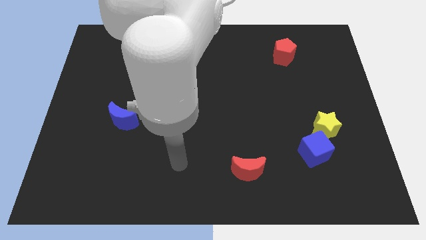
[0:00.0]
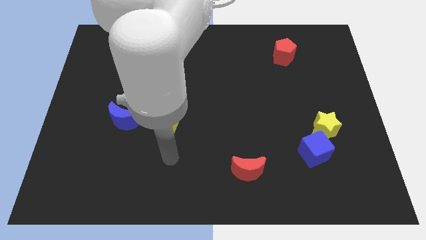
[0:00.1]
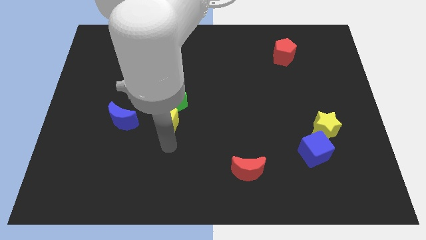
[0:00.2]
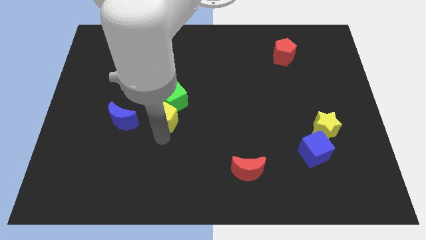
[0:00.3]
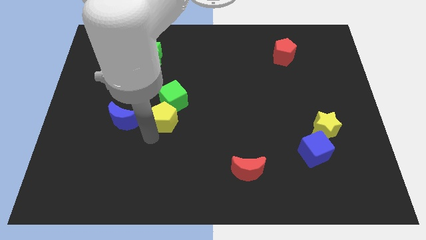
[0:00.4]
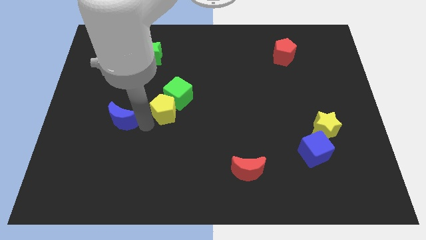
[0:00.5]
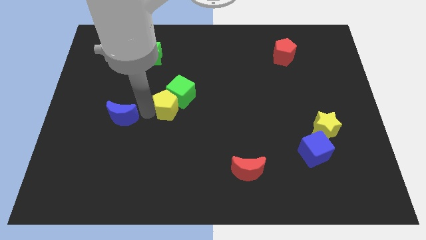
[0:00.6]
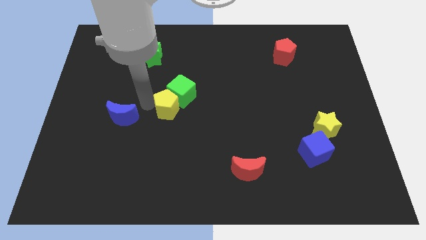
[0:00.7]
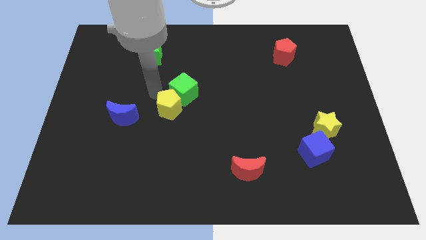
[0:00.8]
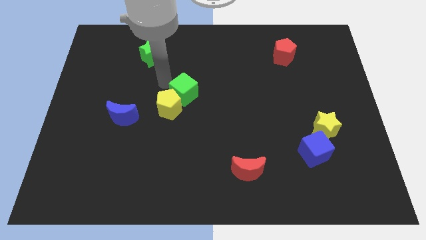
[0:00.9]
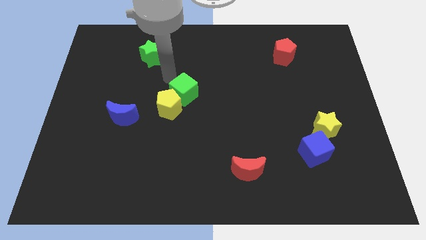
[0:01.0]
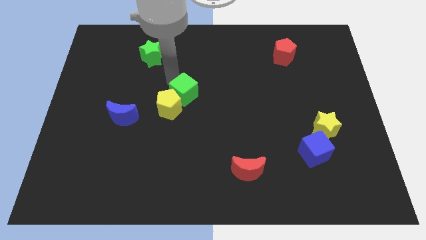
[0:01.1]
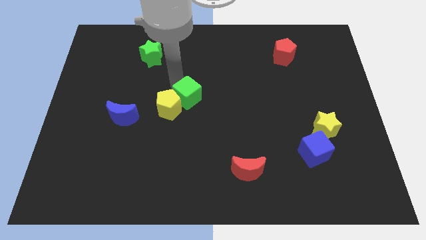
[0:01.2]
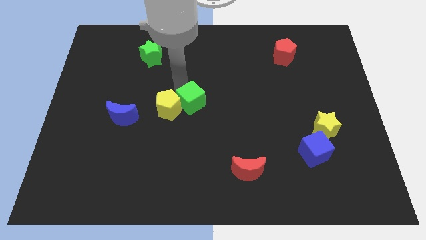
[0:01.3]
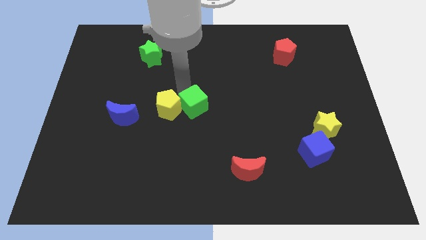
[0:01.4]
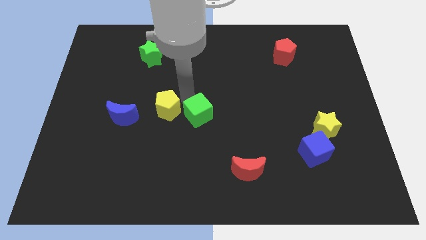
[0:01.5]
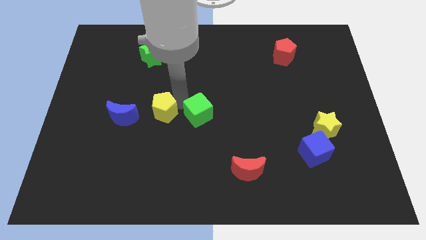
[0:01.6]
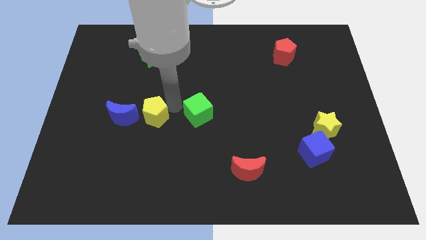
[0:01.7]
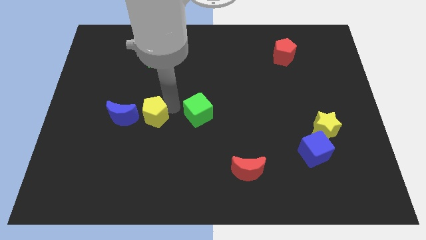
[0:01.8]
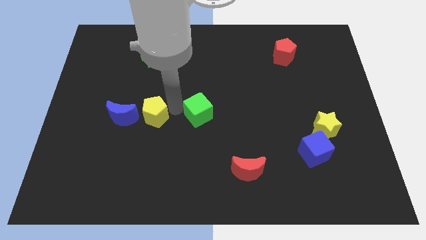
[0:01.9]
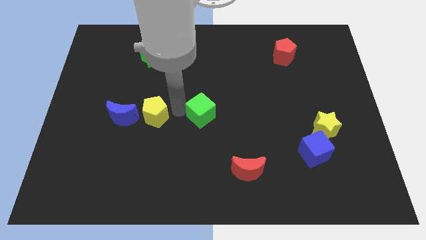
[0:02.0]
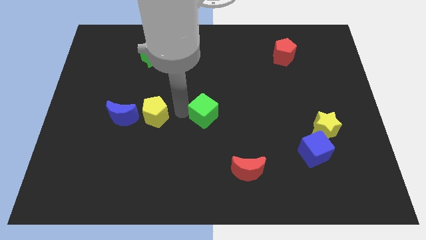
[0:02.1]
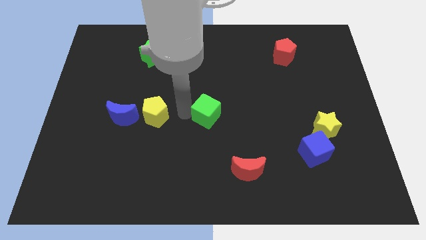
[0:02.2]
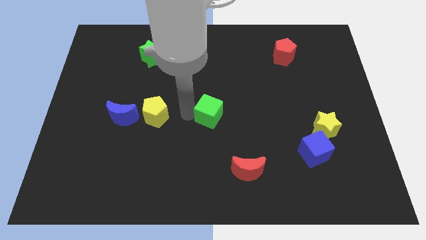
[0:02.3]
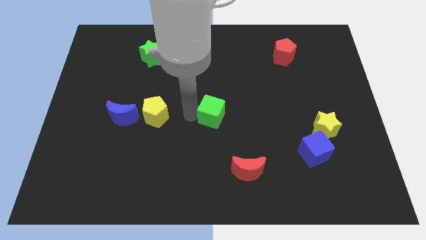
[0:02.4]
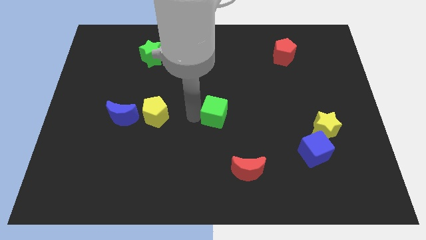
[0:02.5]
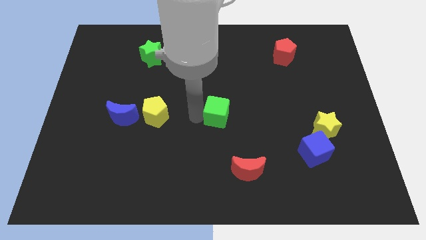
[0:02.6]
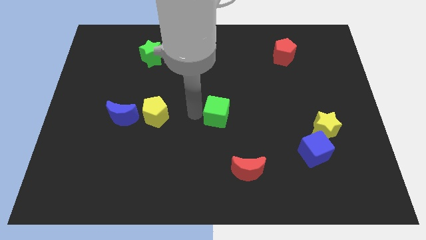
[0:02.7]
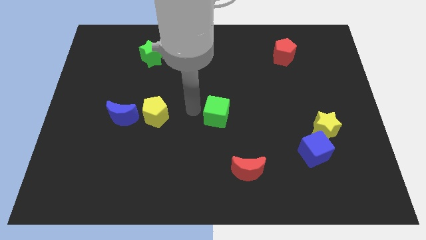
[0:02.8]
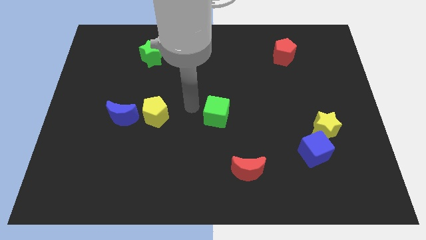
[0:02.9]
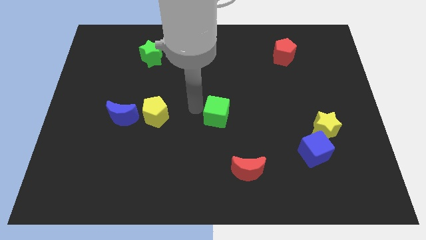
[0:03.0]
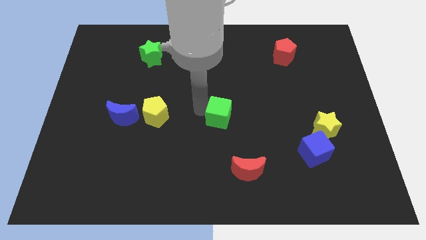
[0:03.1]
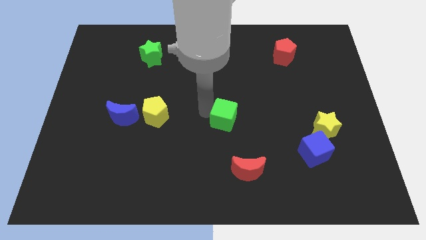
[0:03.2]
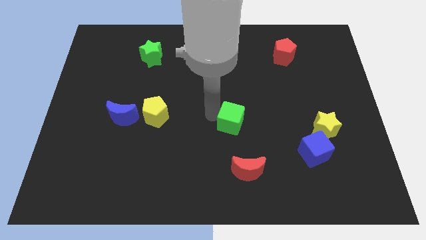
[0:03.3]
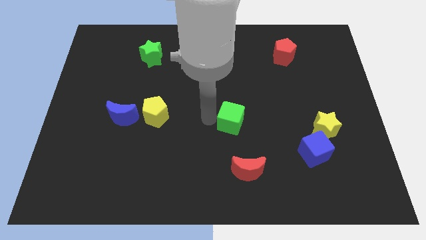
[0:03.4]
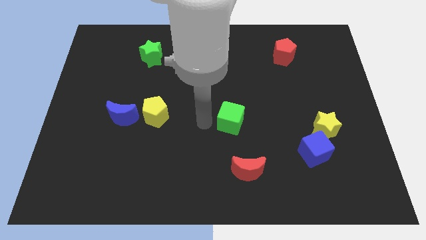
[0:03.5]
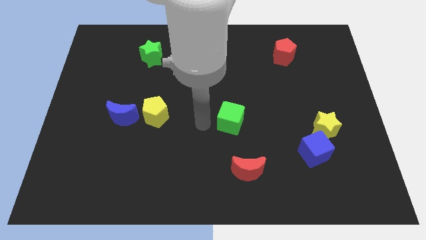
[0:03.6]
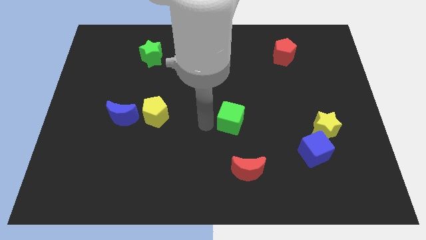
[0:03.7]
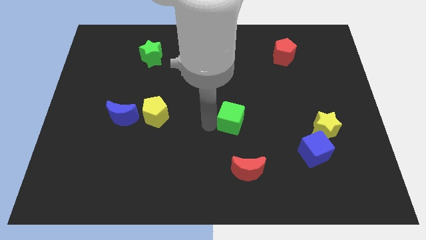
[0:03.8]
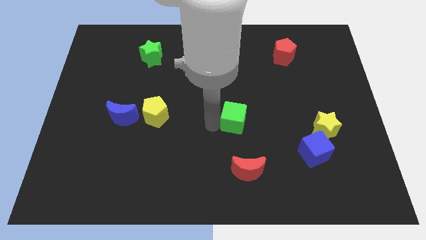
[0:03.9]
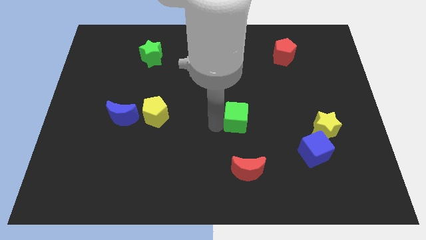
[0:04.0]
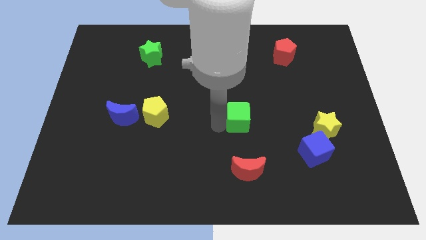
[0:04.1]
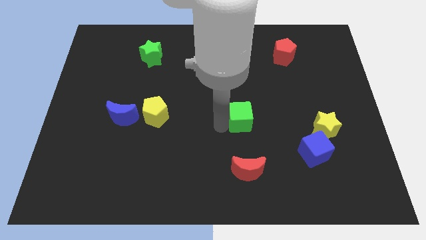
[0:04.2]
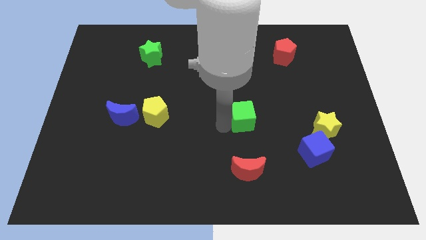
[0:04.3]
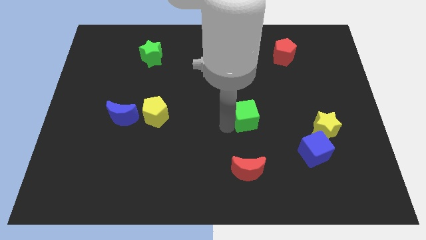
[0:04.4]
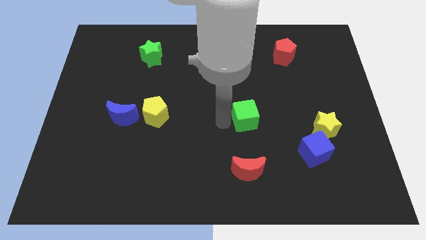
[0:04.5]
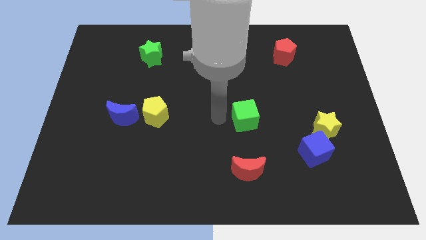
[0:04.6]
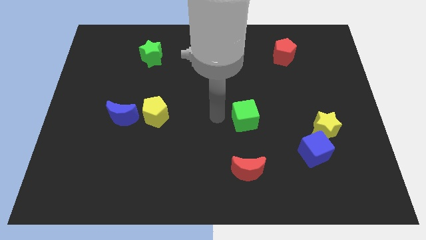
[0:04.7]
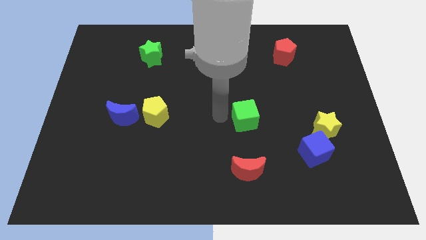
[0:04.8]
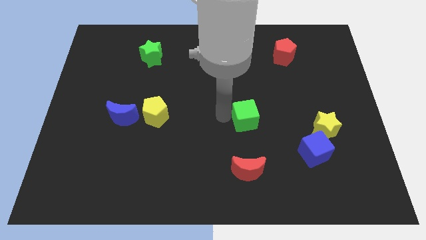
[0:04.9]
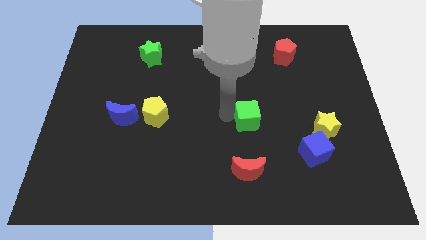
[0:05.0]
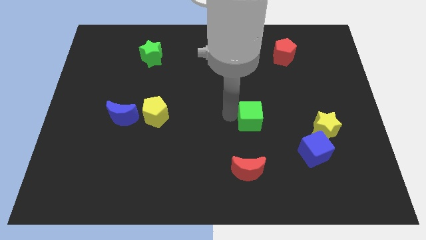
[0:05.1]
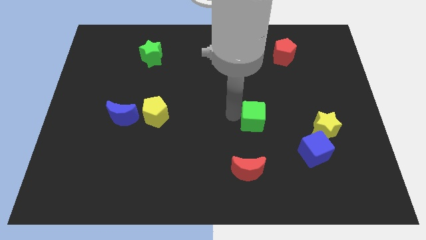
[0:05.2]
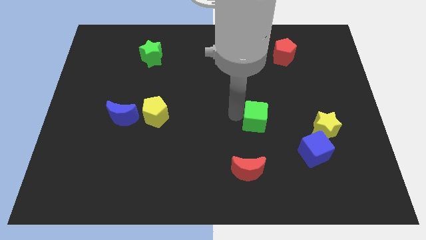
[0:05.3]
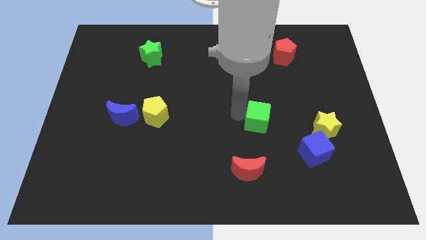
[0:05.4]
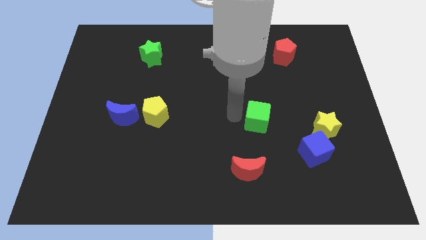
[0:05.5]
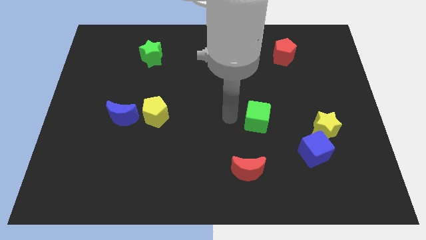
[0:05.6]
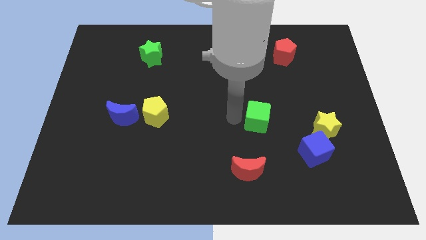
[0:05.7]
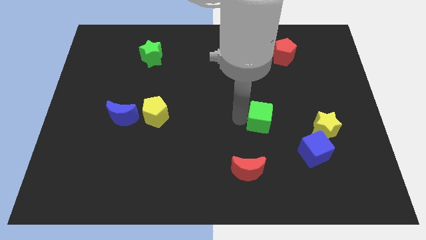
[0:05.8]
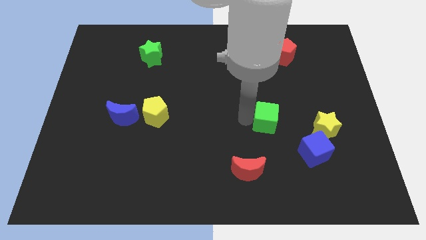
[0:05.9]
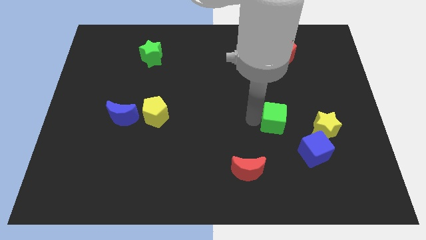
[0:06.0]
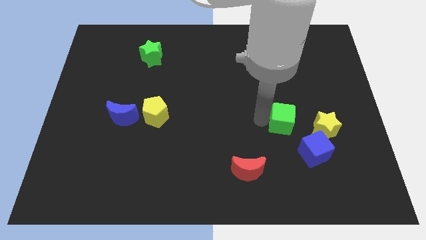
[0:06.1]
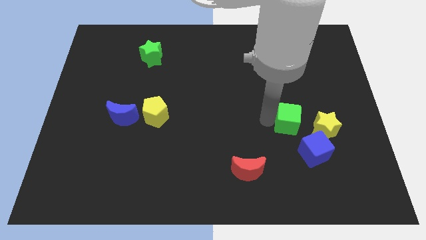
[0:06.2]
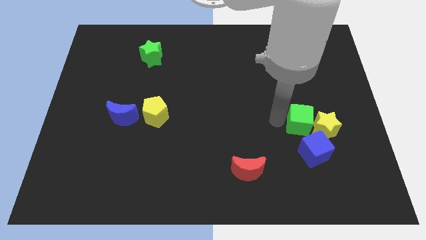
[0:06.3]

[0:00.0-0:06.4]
move the green cube towards the yellow star

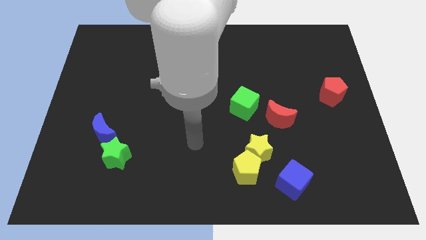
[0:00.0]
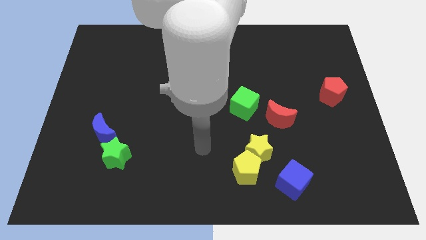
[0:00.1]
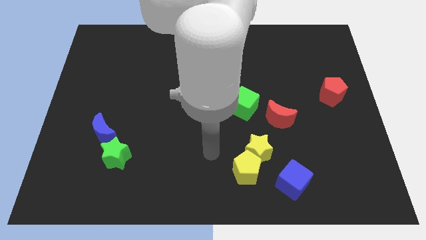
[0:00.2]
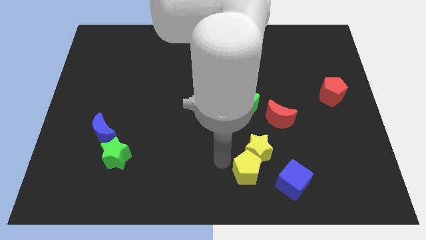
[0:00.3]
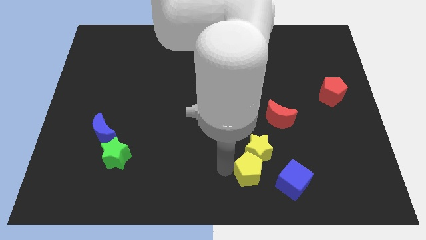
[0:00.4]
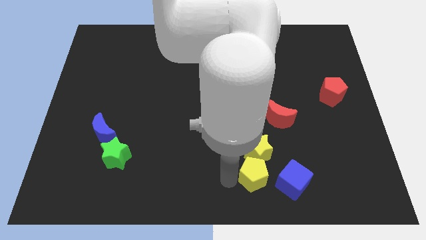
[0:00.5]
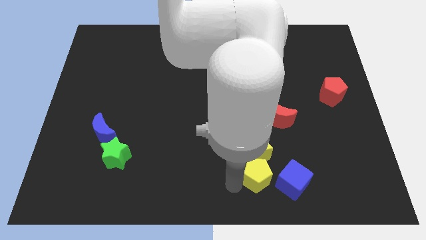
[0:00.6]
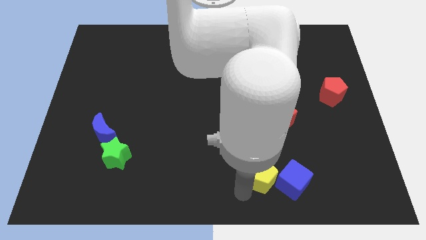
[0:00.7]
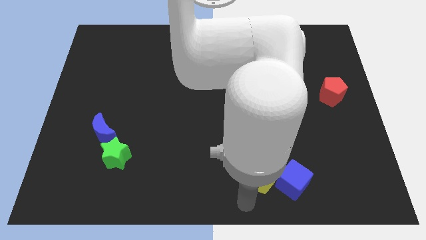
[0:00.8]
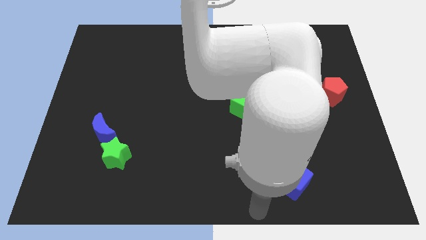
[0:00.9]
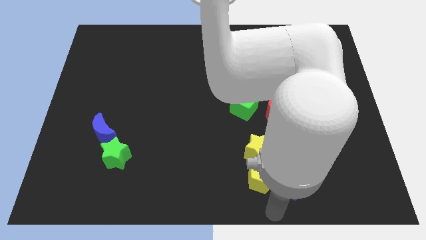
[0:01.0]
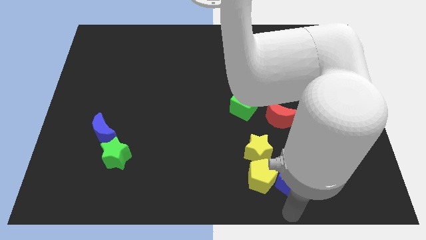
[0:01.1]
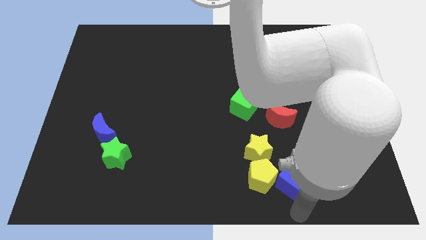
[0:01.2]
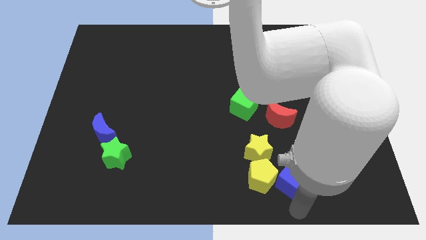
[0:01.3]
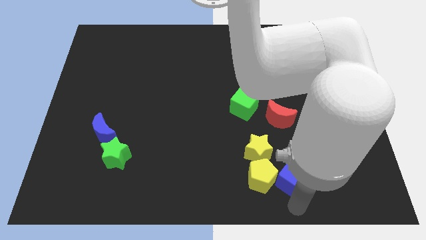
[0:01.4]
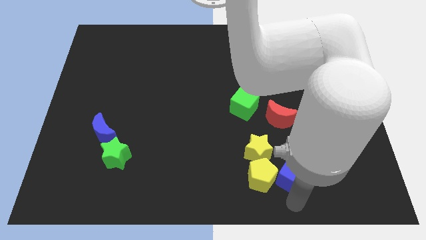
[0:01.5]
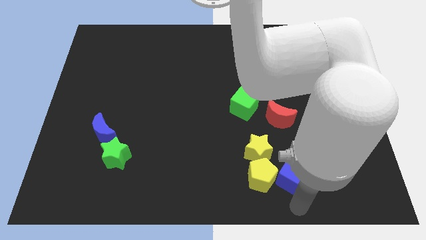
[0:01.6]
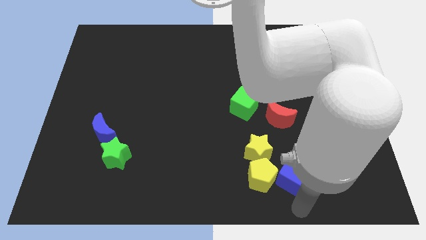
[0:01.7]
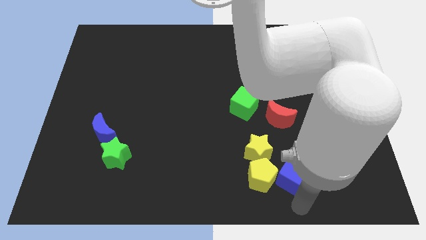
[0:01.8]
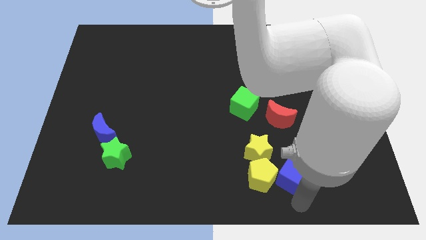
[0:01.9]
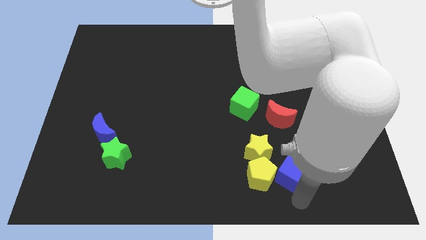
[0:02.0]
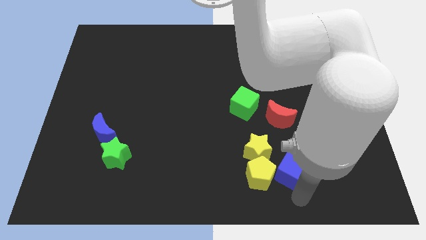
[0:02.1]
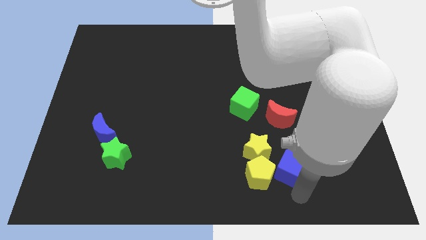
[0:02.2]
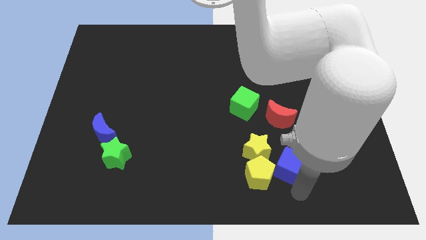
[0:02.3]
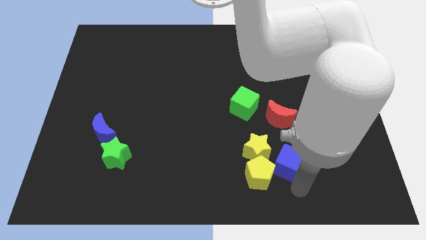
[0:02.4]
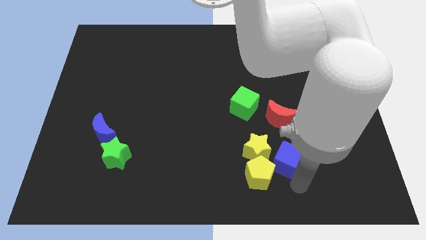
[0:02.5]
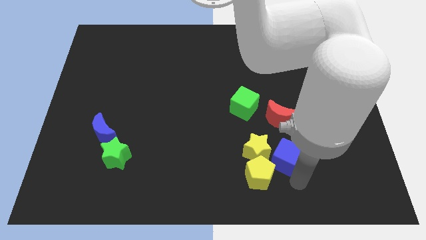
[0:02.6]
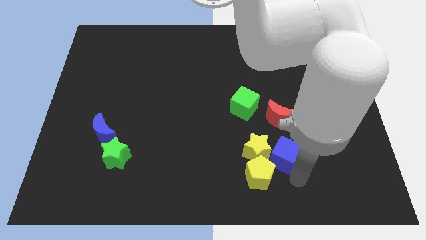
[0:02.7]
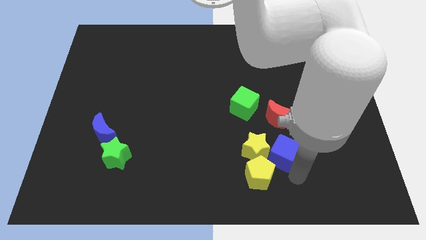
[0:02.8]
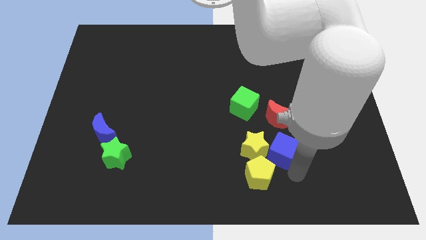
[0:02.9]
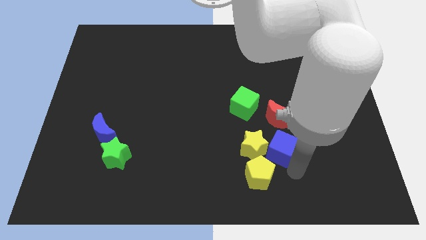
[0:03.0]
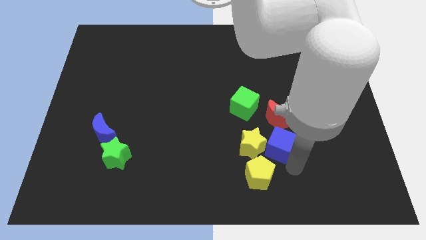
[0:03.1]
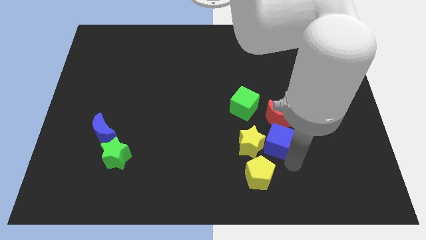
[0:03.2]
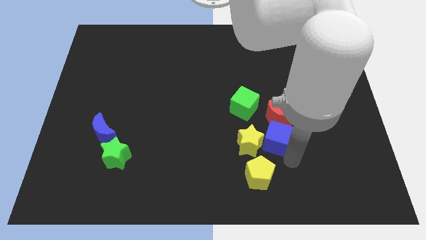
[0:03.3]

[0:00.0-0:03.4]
put the blue cube close to the red moon
